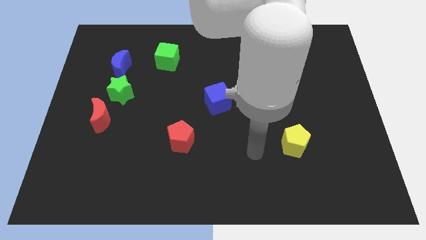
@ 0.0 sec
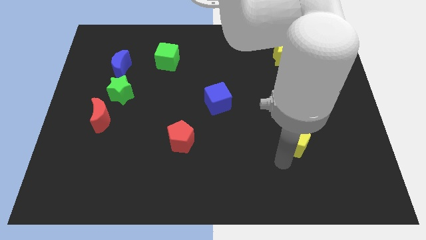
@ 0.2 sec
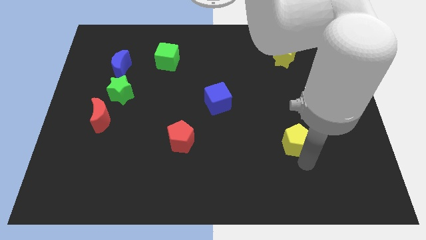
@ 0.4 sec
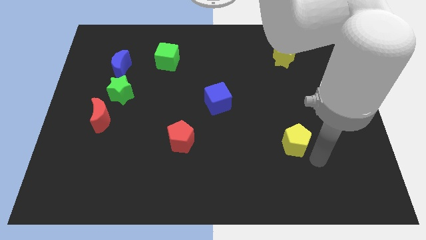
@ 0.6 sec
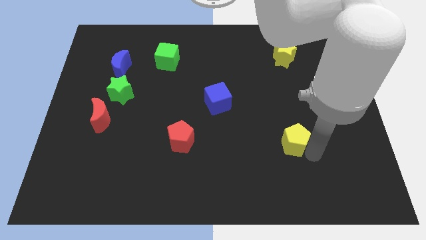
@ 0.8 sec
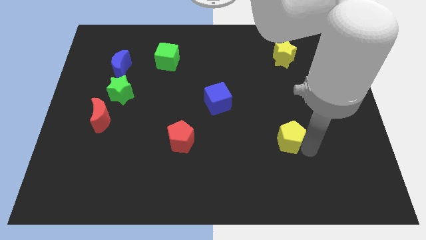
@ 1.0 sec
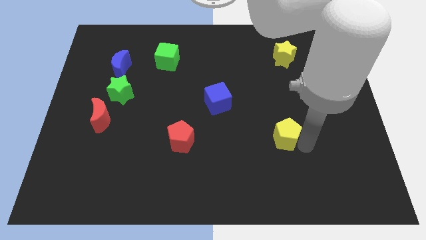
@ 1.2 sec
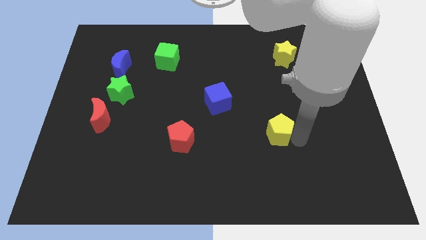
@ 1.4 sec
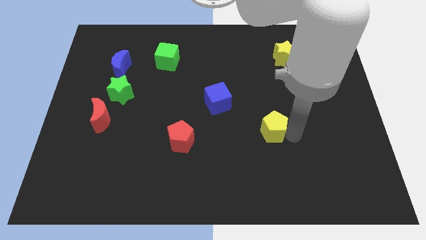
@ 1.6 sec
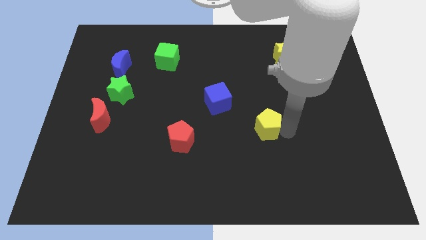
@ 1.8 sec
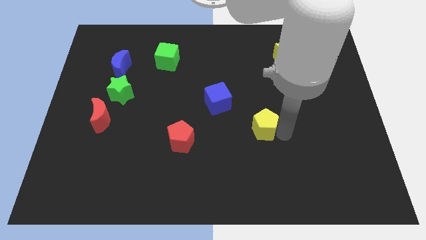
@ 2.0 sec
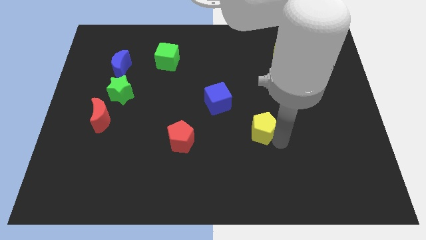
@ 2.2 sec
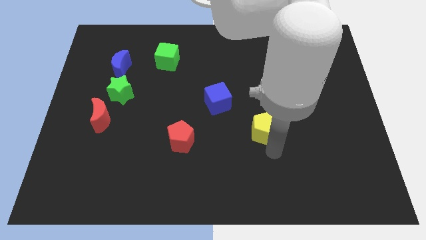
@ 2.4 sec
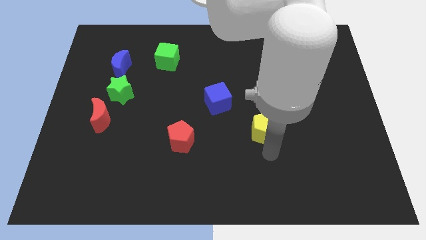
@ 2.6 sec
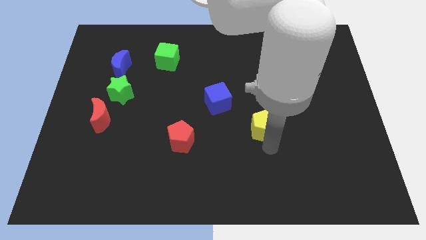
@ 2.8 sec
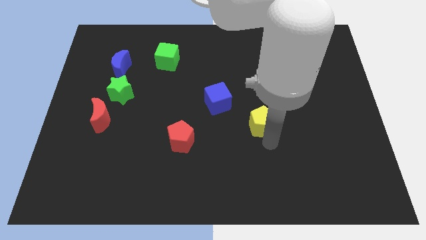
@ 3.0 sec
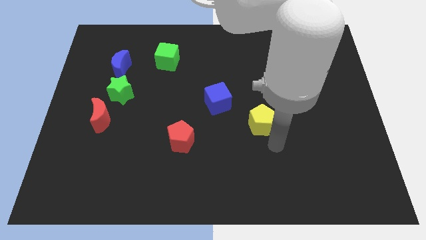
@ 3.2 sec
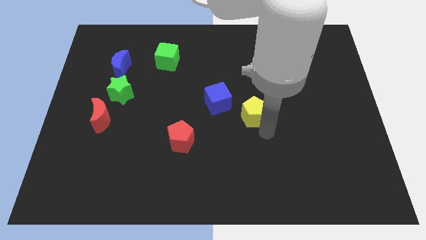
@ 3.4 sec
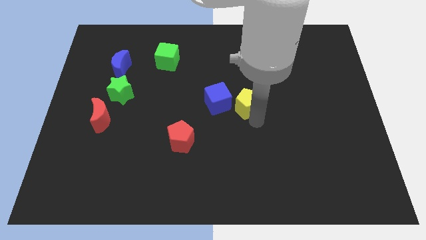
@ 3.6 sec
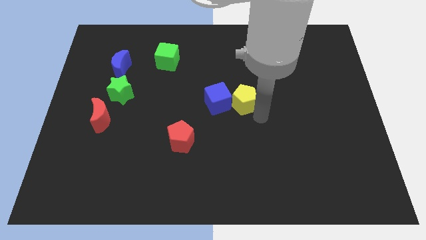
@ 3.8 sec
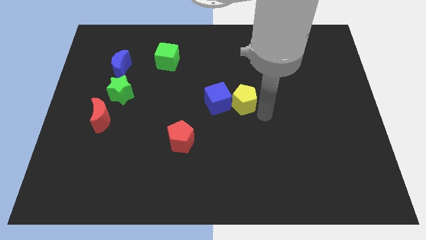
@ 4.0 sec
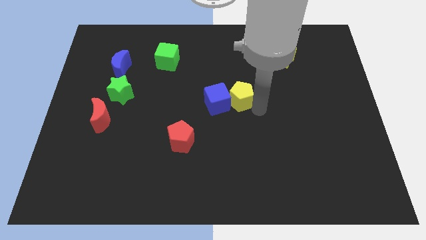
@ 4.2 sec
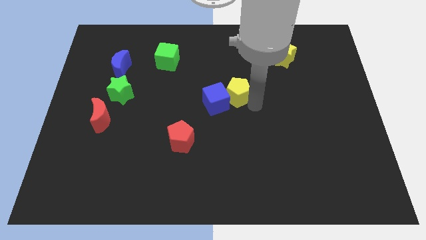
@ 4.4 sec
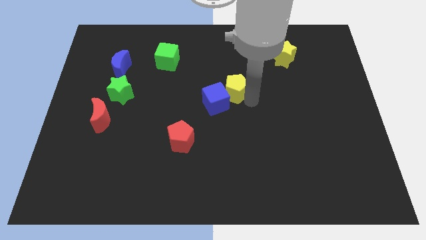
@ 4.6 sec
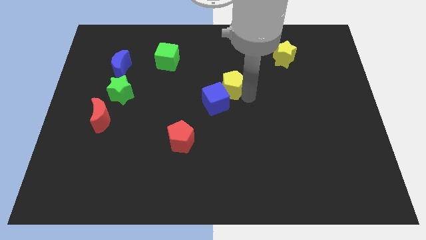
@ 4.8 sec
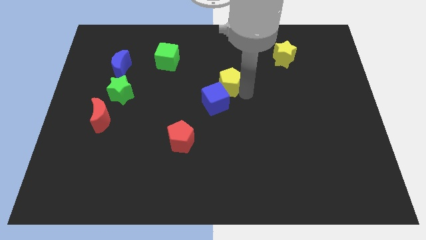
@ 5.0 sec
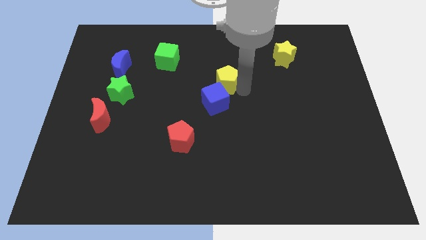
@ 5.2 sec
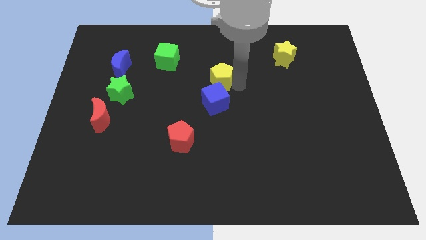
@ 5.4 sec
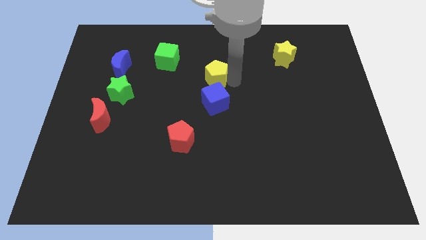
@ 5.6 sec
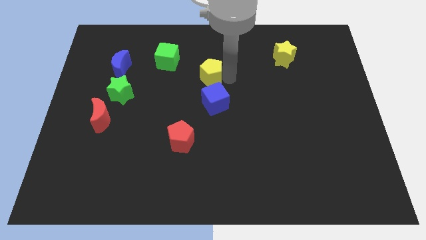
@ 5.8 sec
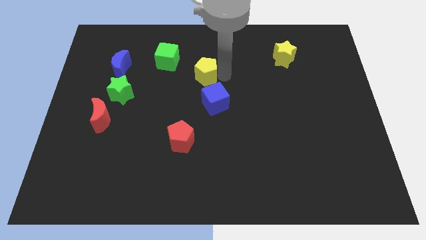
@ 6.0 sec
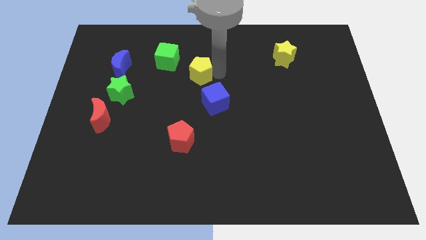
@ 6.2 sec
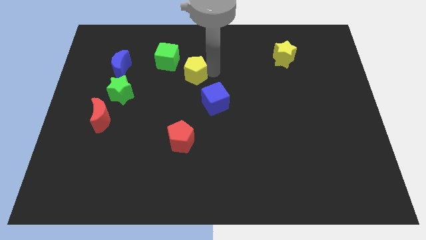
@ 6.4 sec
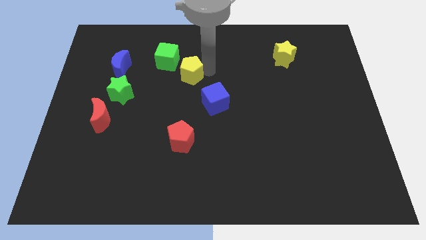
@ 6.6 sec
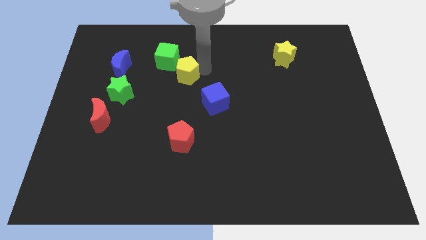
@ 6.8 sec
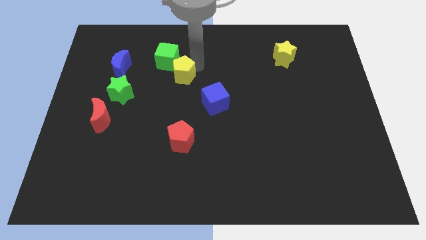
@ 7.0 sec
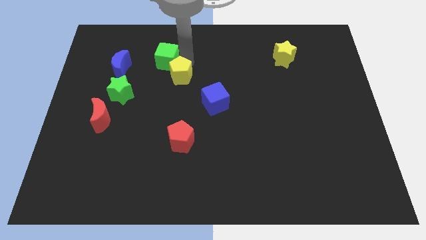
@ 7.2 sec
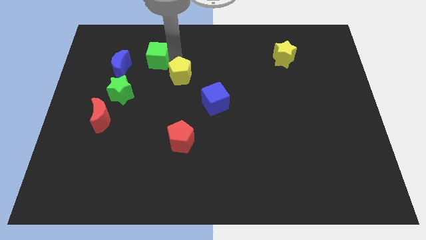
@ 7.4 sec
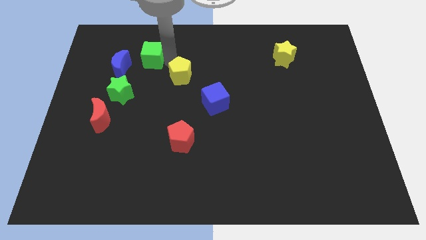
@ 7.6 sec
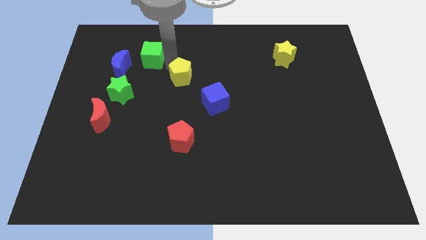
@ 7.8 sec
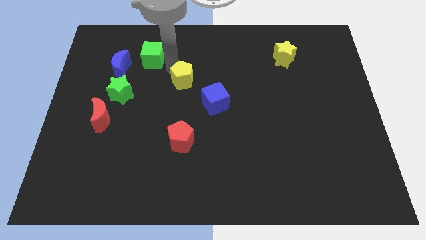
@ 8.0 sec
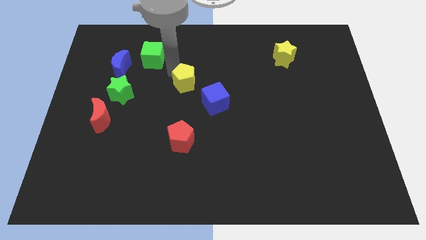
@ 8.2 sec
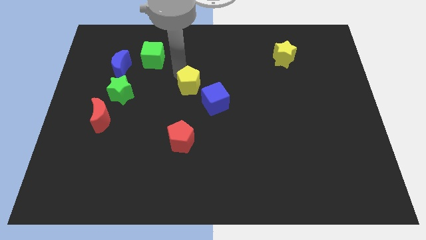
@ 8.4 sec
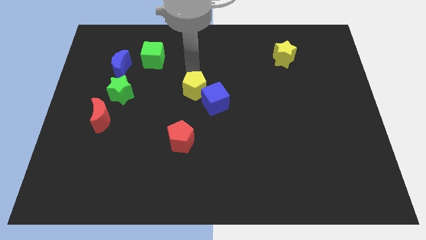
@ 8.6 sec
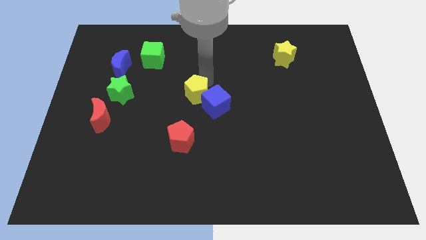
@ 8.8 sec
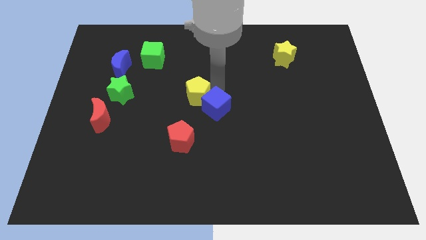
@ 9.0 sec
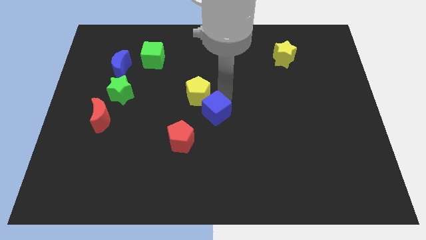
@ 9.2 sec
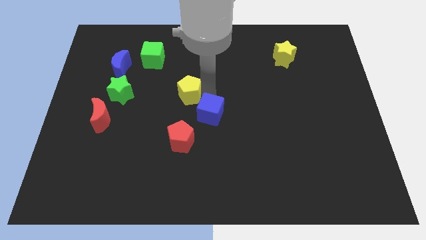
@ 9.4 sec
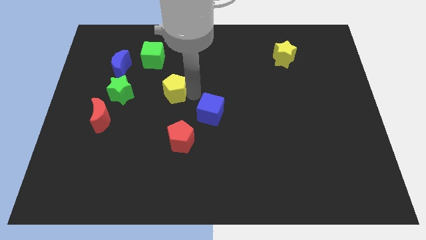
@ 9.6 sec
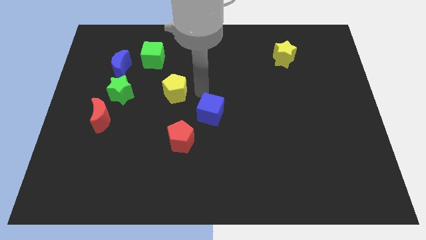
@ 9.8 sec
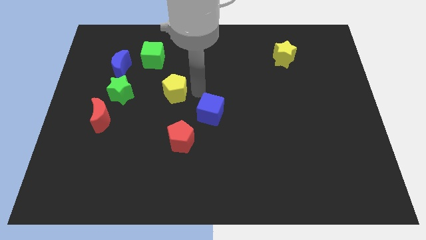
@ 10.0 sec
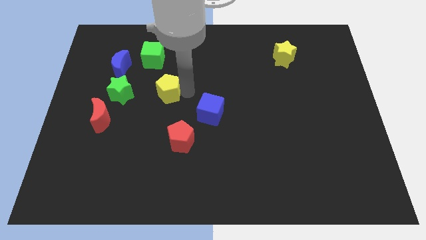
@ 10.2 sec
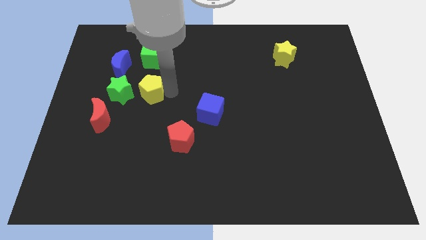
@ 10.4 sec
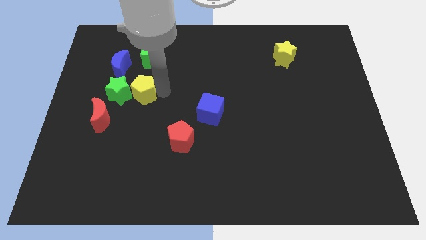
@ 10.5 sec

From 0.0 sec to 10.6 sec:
put the yellow pentagon to the top right side of the red moon

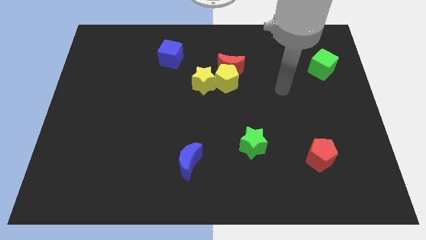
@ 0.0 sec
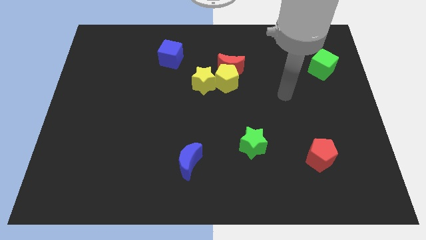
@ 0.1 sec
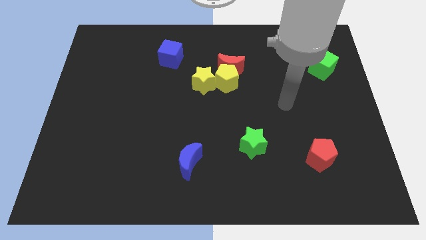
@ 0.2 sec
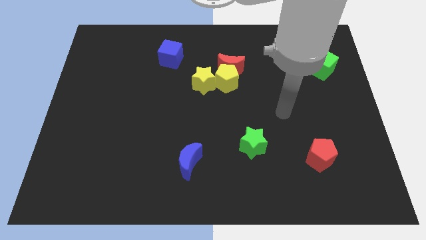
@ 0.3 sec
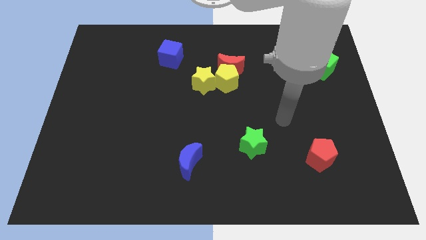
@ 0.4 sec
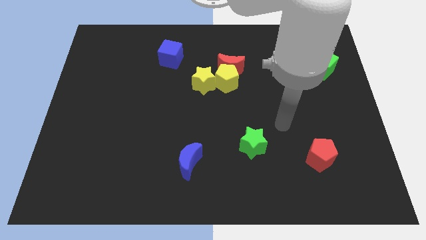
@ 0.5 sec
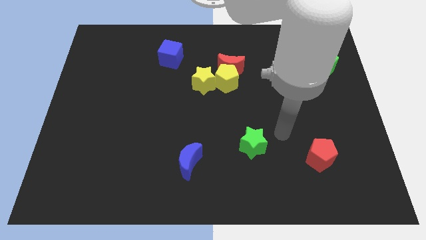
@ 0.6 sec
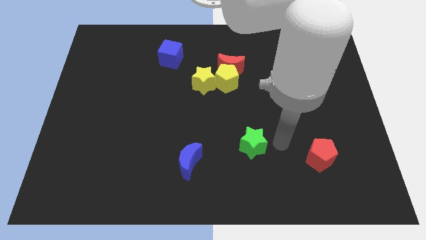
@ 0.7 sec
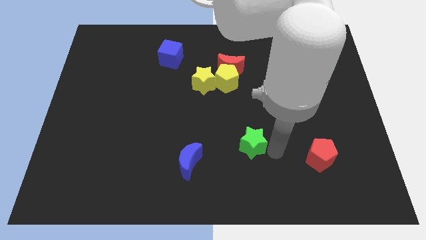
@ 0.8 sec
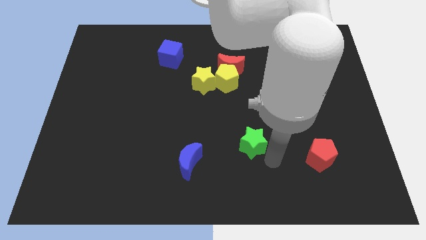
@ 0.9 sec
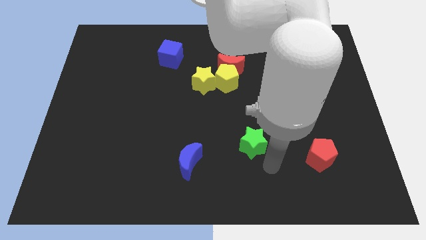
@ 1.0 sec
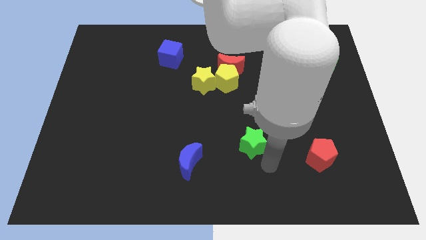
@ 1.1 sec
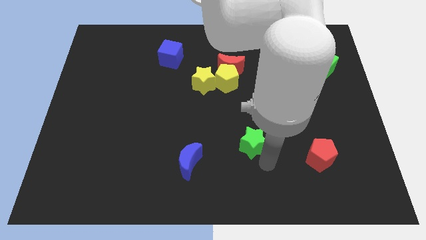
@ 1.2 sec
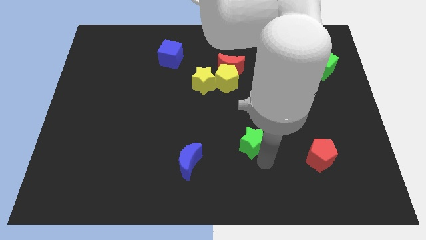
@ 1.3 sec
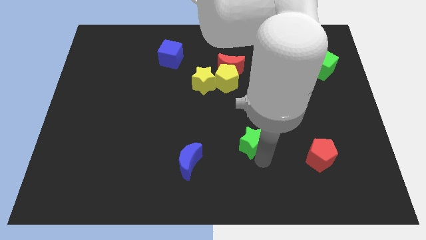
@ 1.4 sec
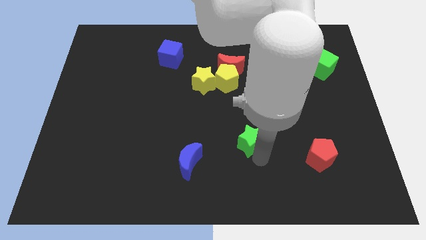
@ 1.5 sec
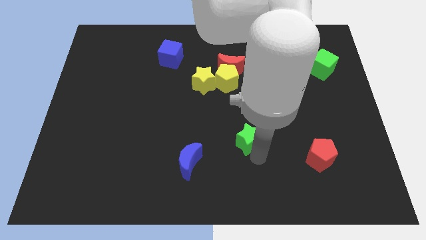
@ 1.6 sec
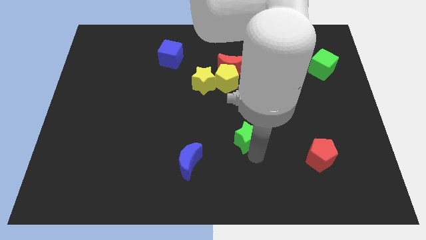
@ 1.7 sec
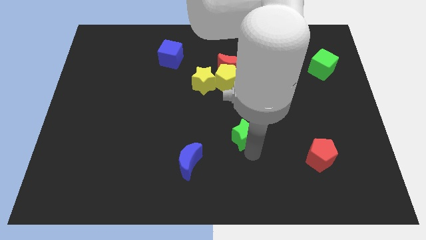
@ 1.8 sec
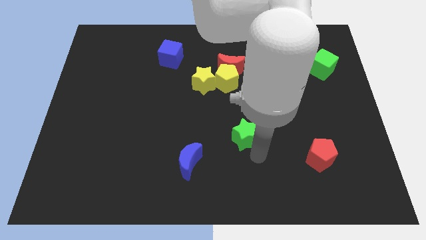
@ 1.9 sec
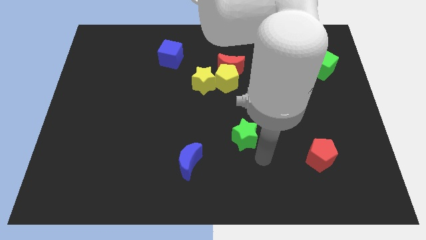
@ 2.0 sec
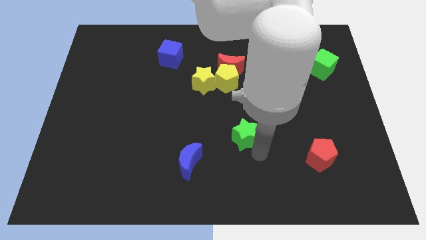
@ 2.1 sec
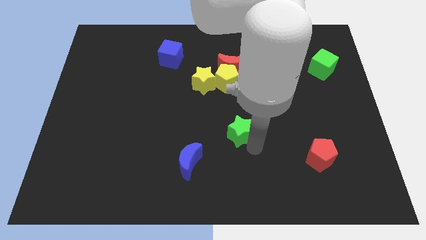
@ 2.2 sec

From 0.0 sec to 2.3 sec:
push the green star to the bottom side of the yellow pentagon
